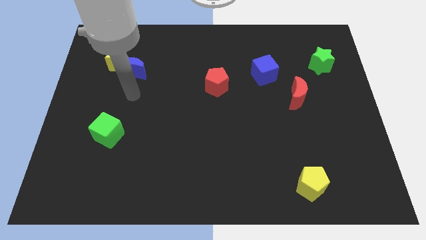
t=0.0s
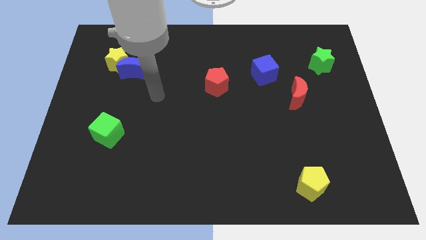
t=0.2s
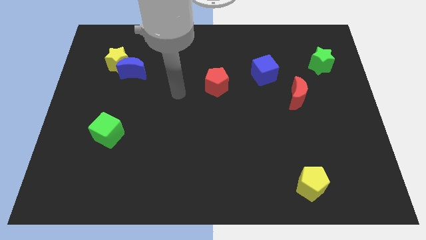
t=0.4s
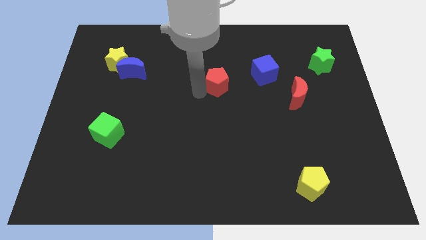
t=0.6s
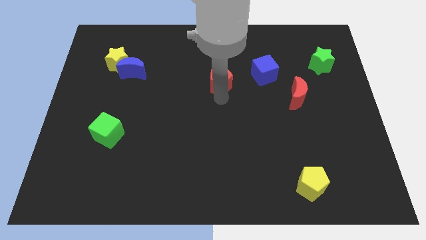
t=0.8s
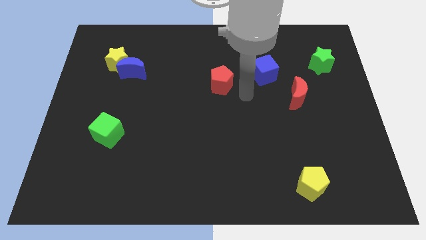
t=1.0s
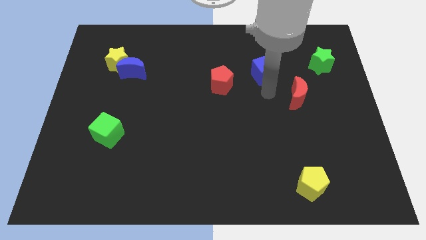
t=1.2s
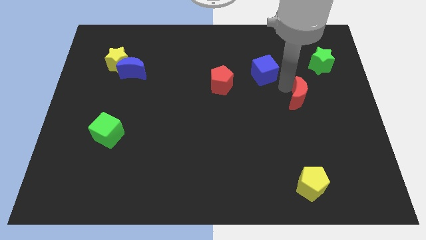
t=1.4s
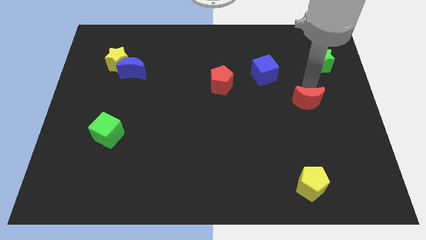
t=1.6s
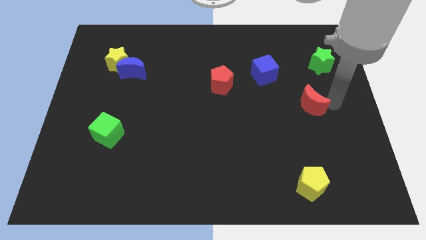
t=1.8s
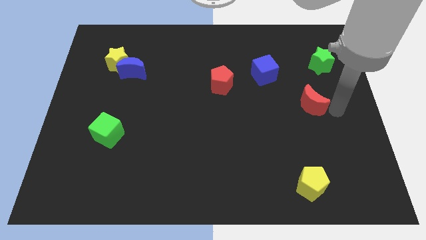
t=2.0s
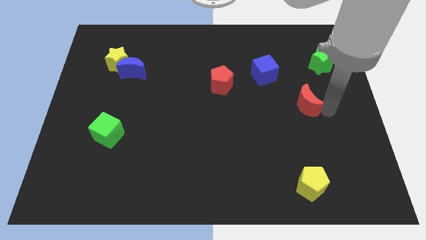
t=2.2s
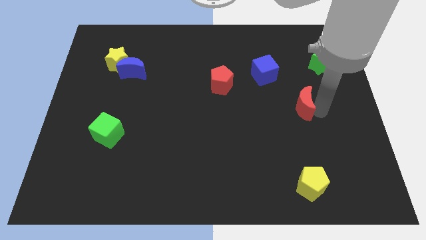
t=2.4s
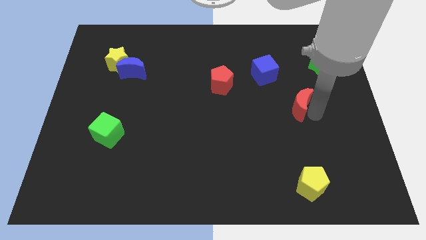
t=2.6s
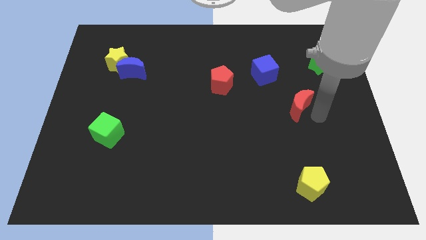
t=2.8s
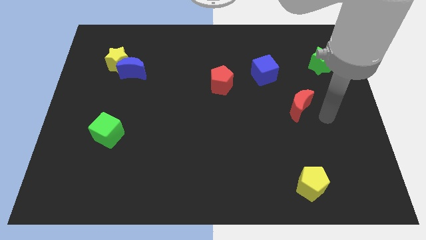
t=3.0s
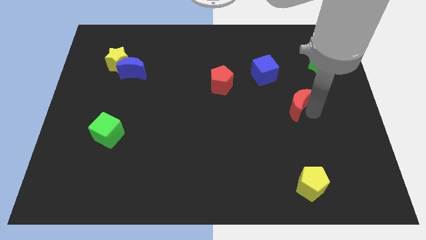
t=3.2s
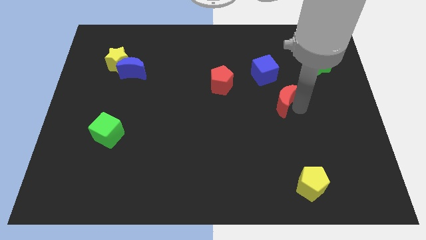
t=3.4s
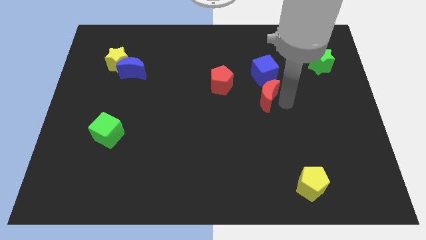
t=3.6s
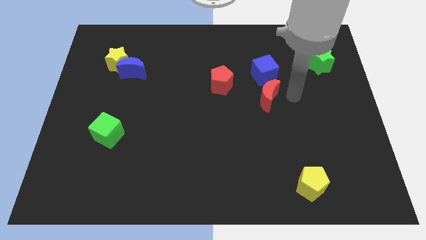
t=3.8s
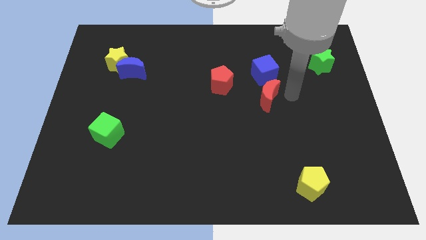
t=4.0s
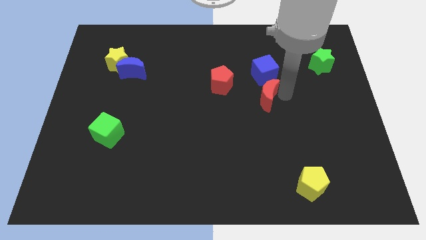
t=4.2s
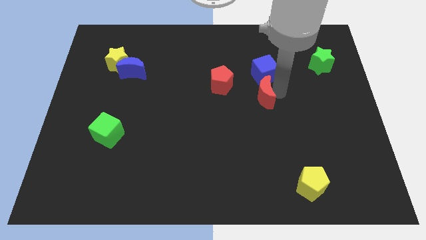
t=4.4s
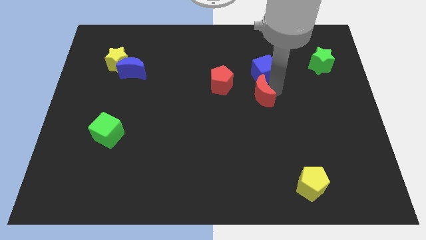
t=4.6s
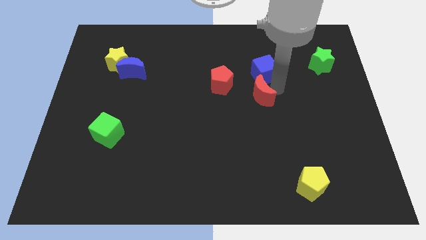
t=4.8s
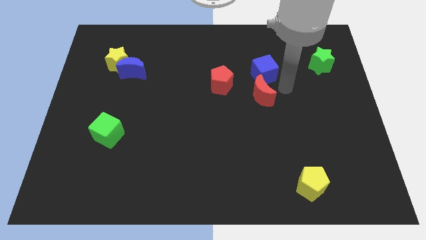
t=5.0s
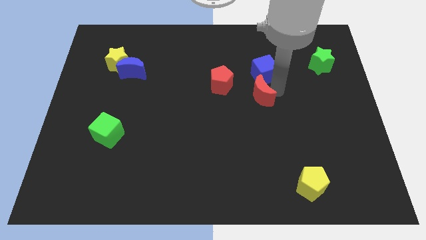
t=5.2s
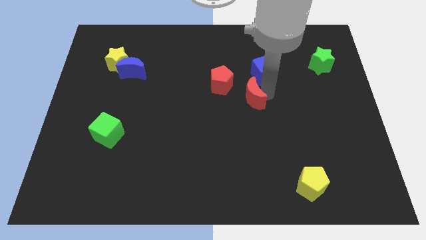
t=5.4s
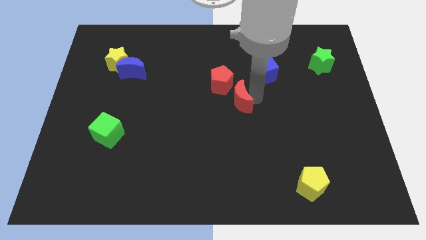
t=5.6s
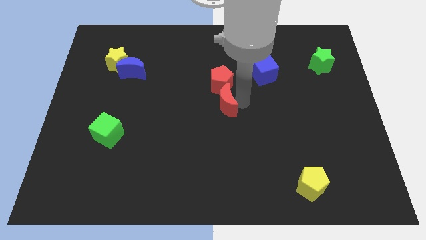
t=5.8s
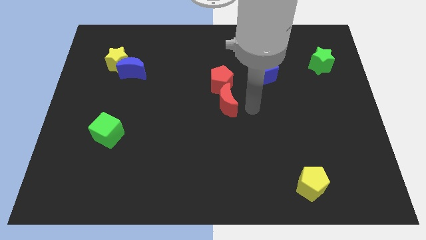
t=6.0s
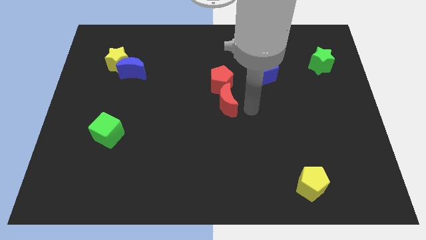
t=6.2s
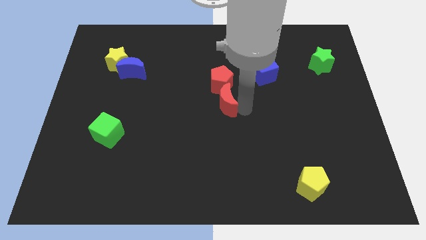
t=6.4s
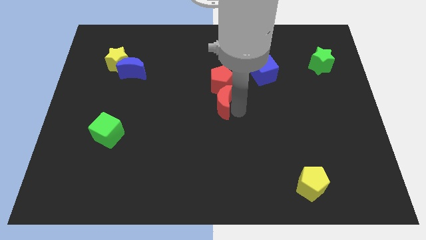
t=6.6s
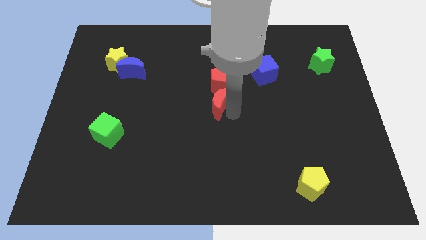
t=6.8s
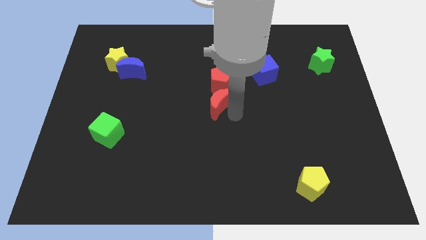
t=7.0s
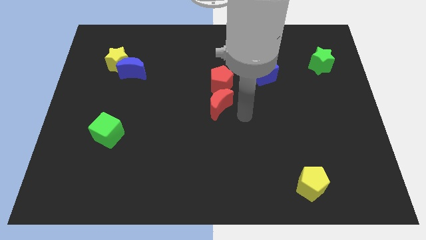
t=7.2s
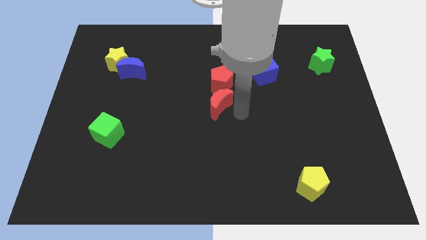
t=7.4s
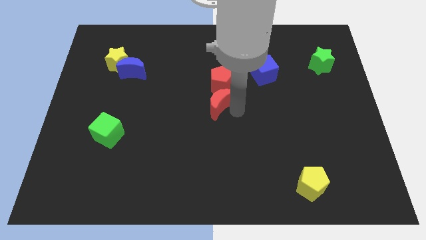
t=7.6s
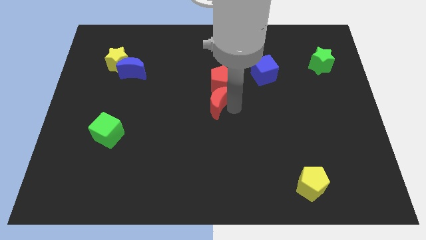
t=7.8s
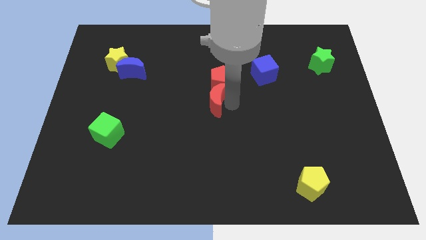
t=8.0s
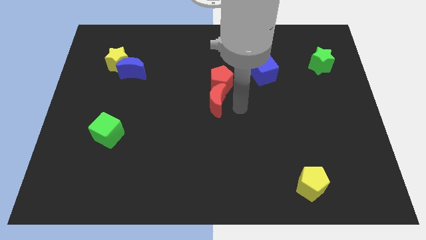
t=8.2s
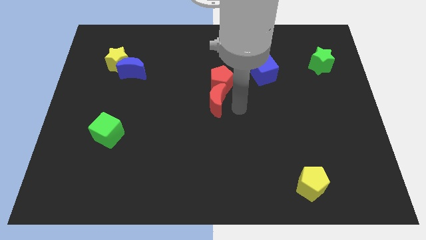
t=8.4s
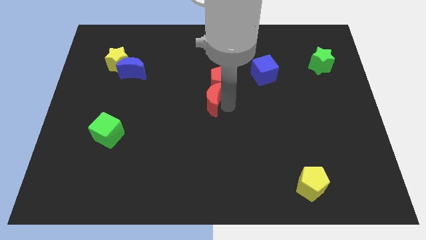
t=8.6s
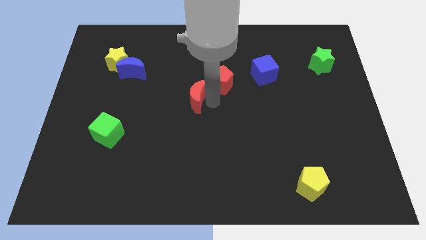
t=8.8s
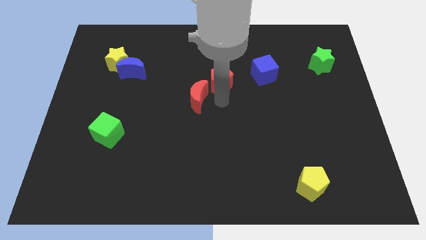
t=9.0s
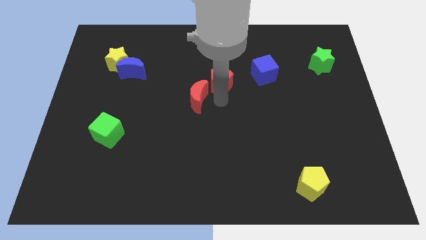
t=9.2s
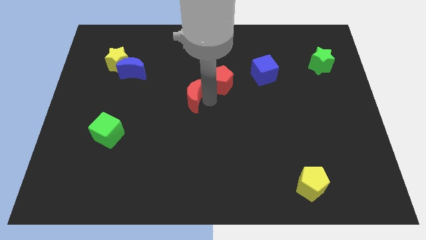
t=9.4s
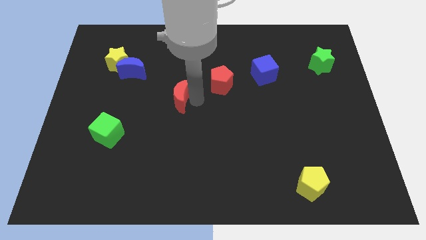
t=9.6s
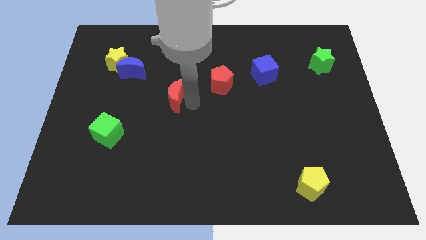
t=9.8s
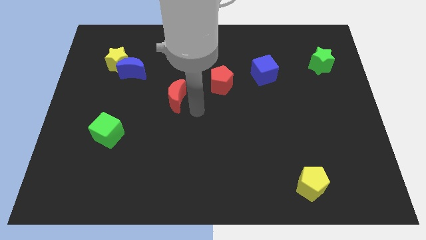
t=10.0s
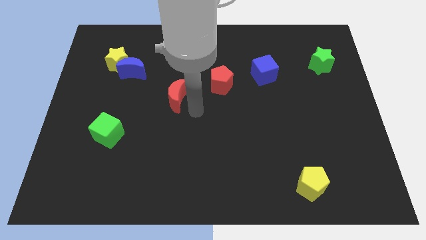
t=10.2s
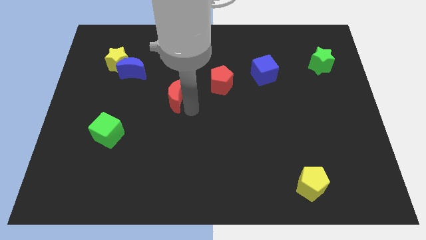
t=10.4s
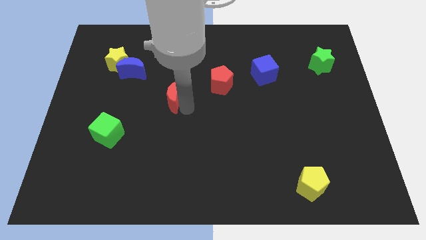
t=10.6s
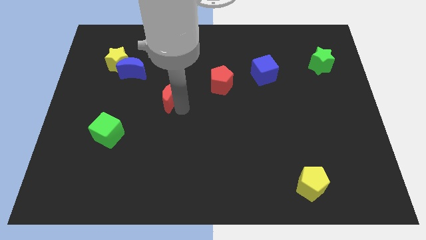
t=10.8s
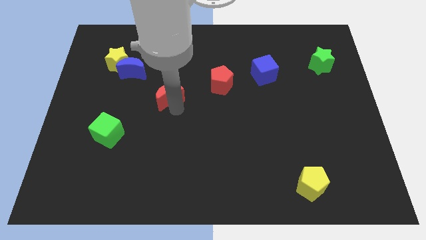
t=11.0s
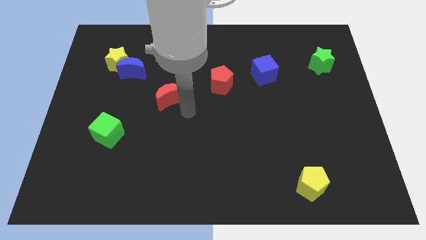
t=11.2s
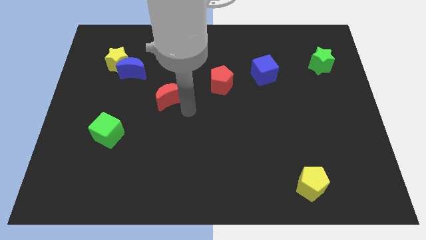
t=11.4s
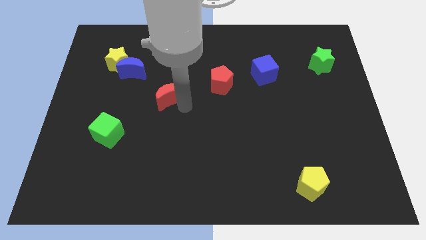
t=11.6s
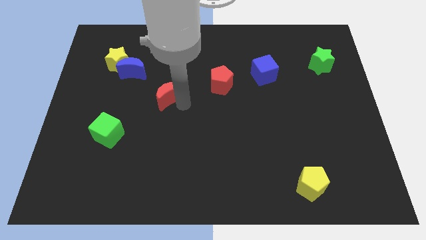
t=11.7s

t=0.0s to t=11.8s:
put the red moon to the bottom right of the blue moon
